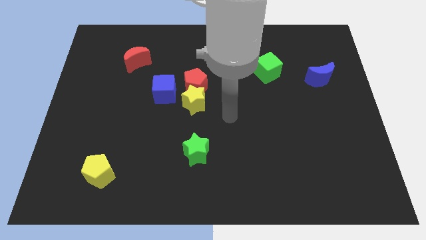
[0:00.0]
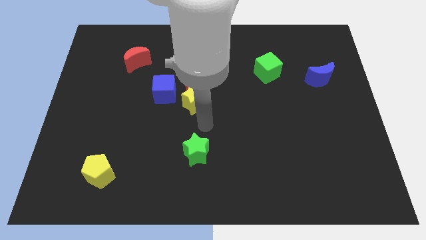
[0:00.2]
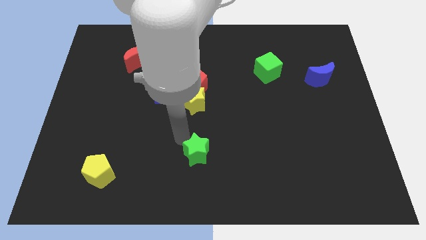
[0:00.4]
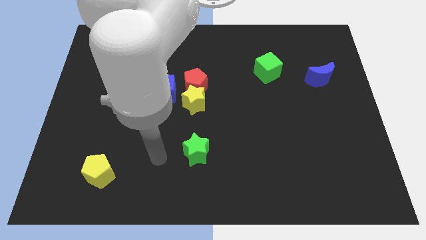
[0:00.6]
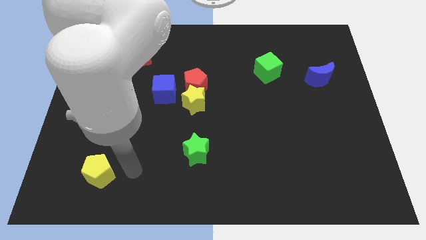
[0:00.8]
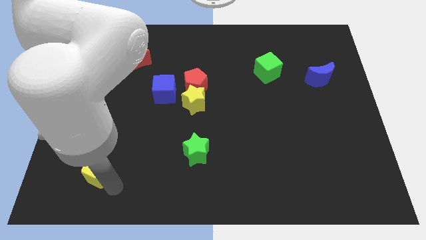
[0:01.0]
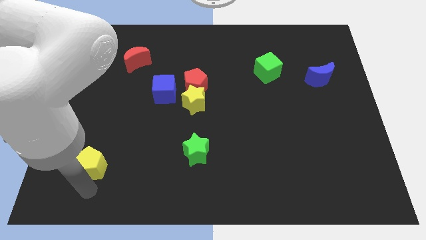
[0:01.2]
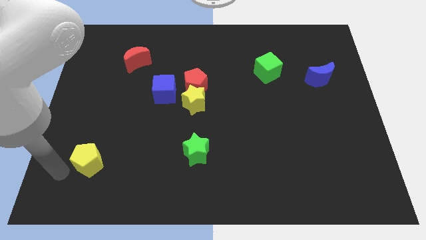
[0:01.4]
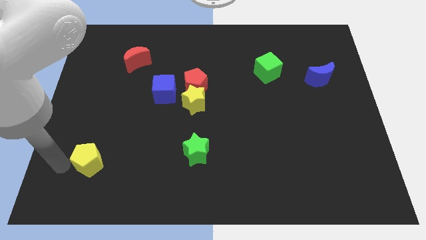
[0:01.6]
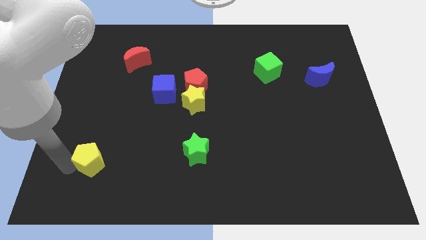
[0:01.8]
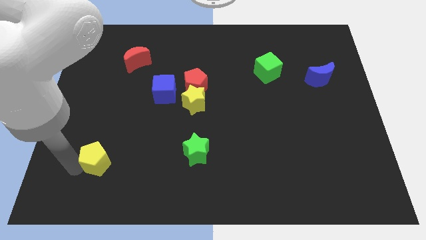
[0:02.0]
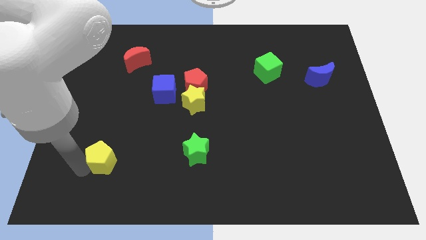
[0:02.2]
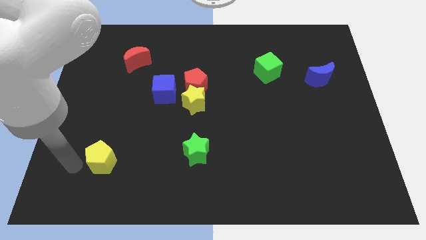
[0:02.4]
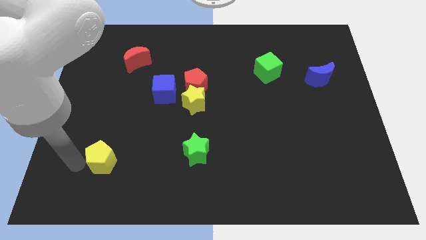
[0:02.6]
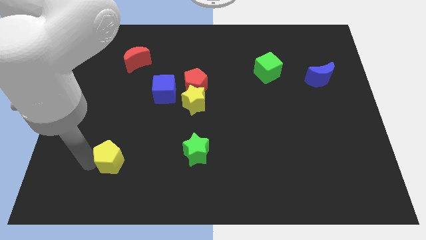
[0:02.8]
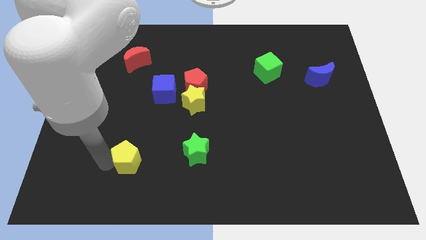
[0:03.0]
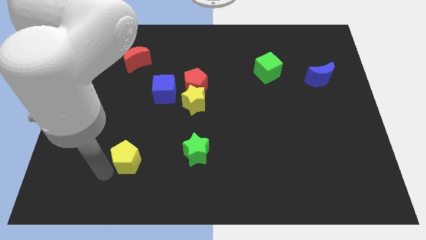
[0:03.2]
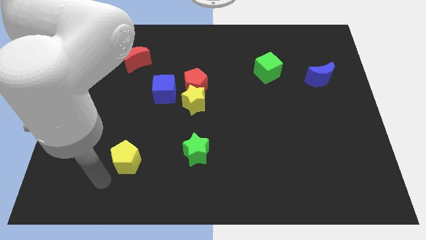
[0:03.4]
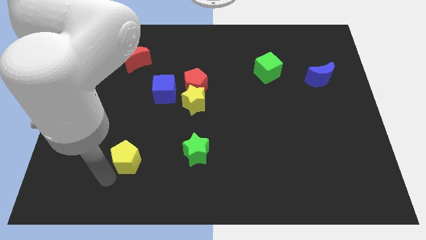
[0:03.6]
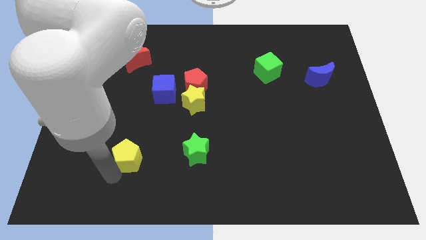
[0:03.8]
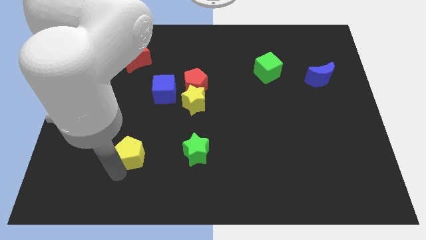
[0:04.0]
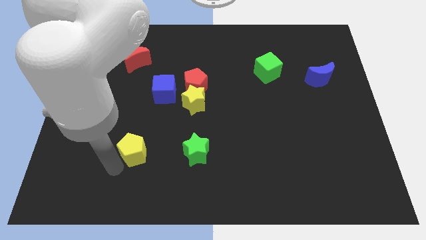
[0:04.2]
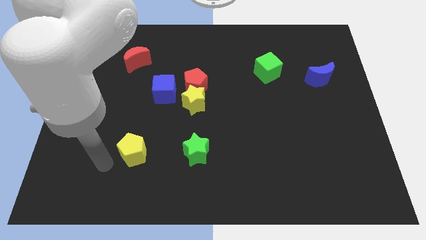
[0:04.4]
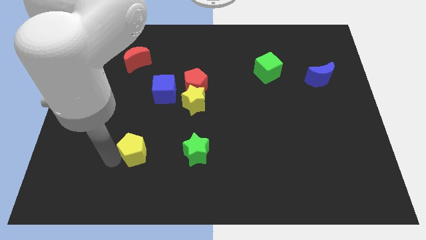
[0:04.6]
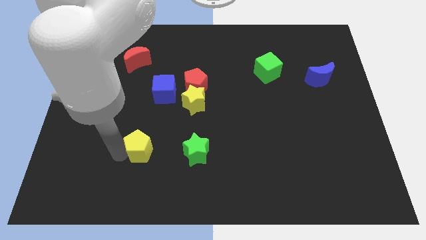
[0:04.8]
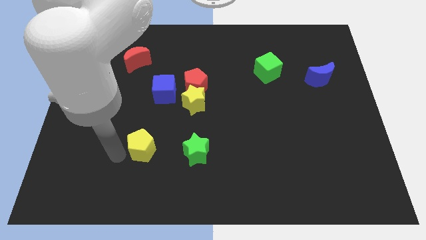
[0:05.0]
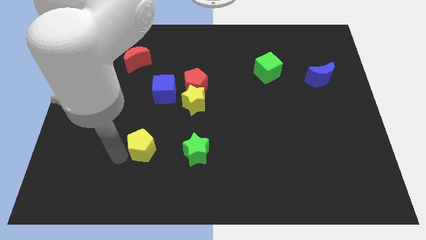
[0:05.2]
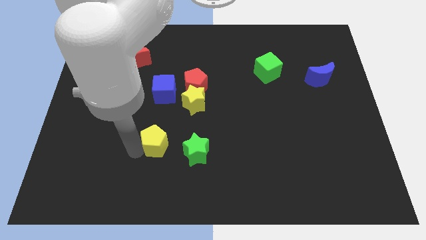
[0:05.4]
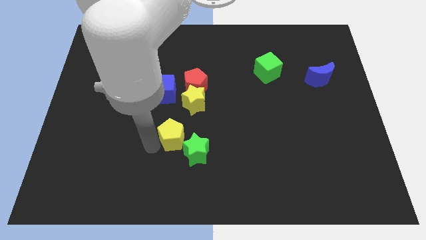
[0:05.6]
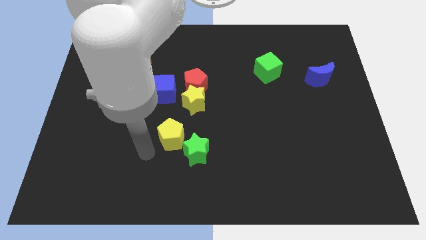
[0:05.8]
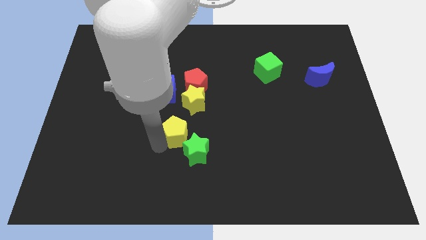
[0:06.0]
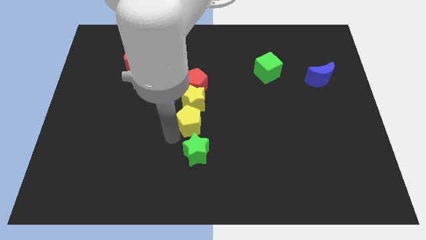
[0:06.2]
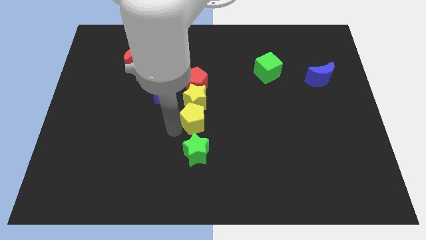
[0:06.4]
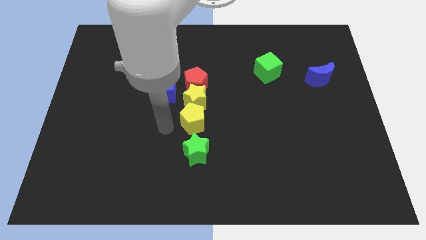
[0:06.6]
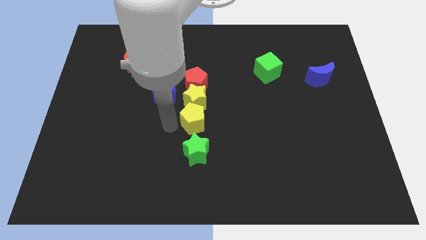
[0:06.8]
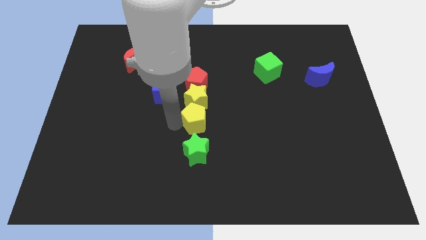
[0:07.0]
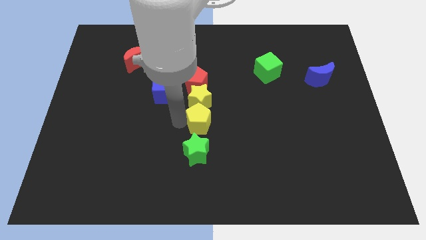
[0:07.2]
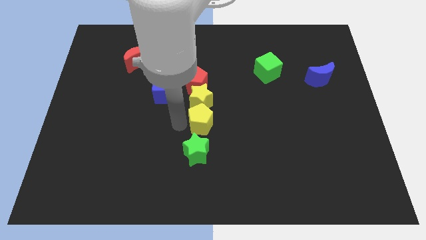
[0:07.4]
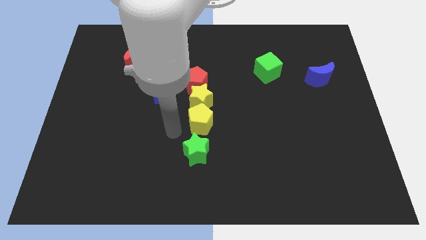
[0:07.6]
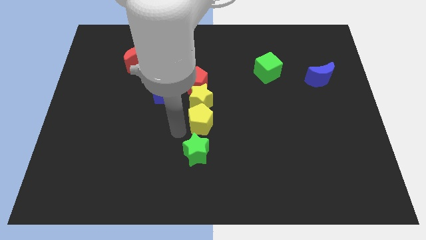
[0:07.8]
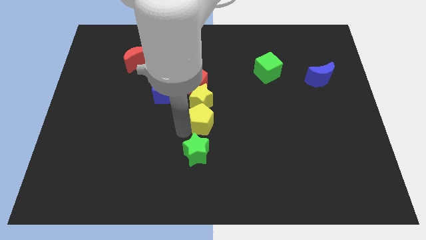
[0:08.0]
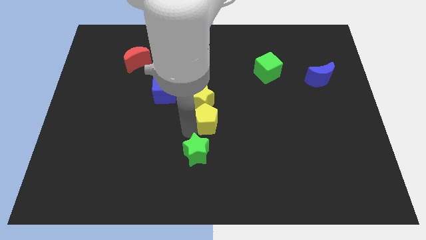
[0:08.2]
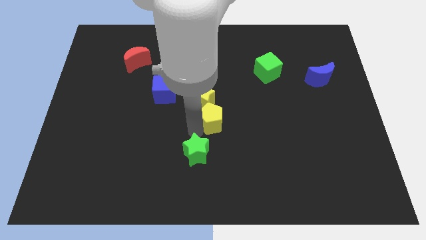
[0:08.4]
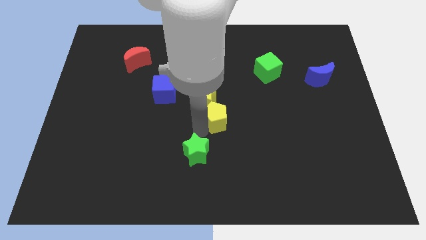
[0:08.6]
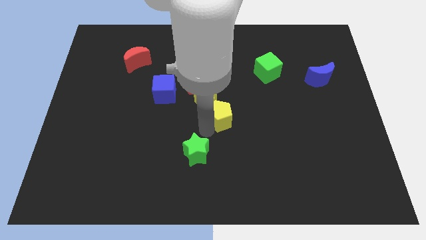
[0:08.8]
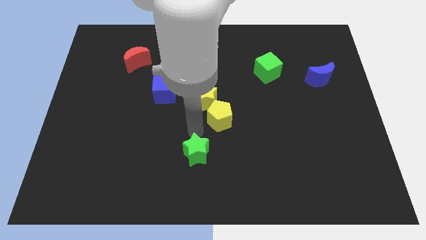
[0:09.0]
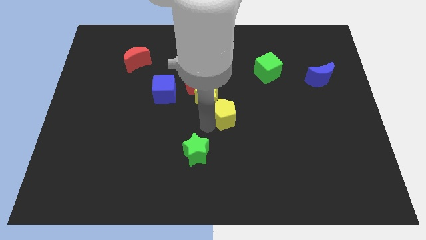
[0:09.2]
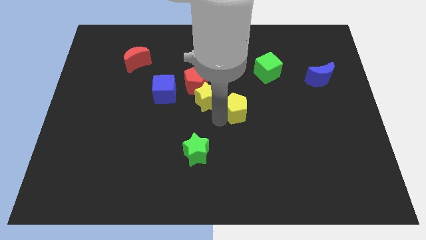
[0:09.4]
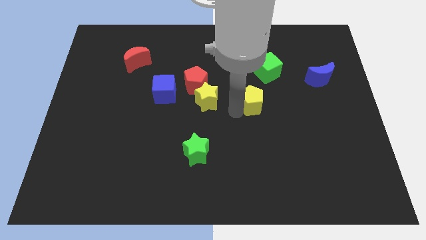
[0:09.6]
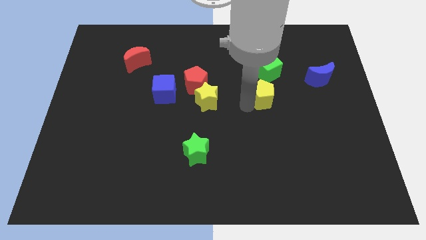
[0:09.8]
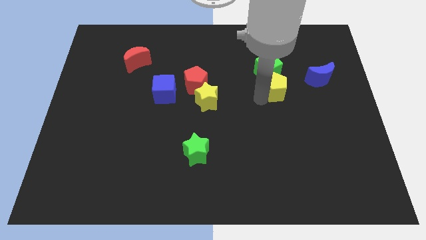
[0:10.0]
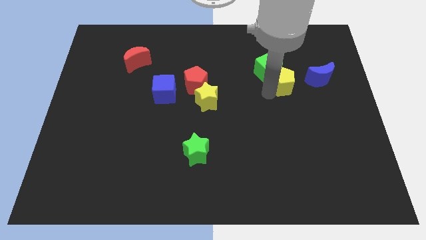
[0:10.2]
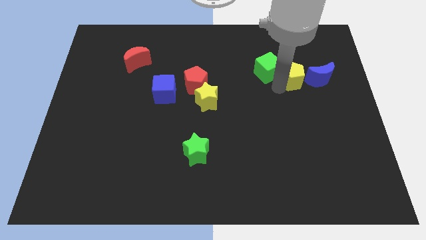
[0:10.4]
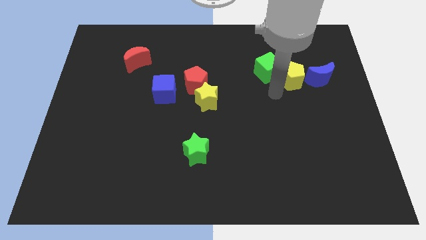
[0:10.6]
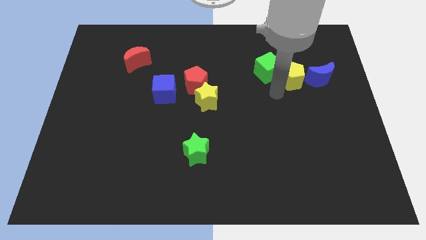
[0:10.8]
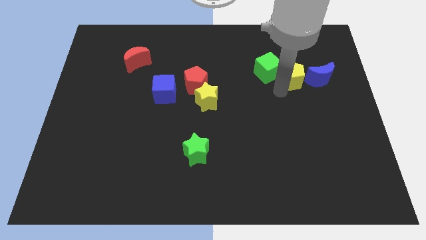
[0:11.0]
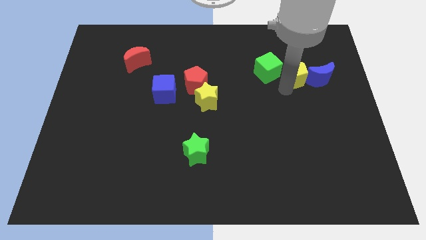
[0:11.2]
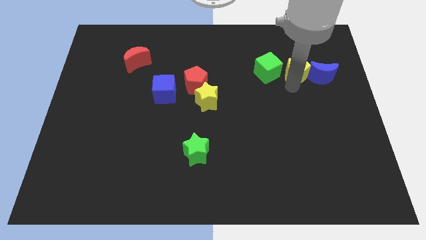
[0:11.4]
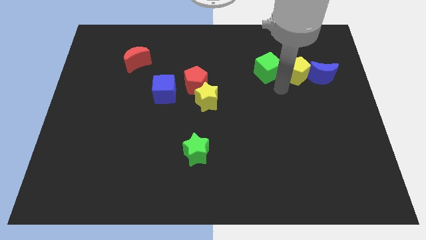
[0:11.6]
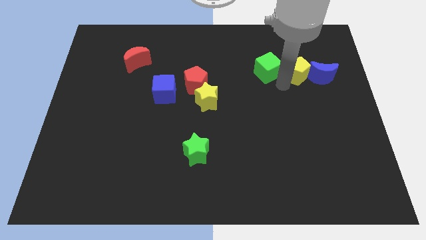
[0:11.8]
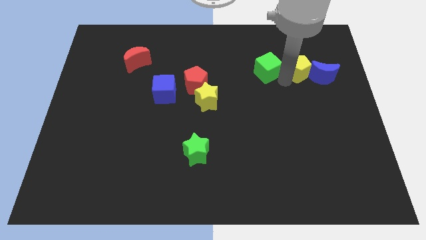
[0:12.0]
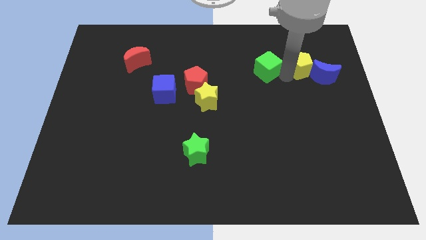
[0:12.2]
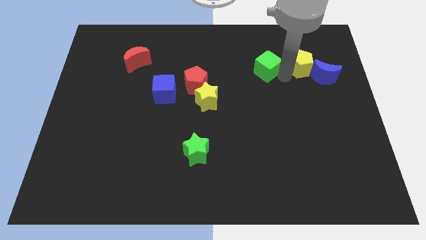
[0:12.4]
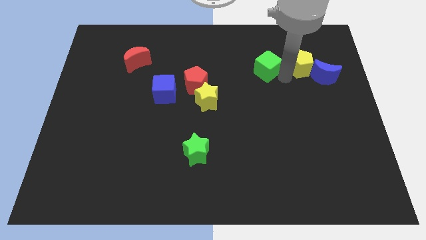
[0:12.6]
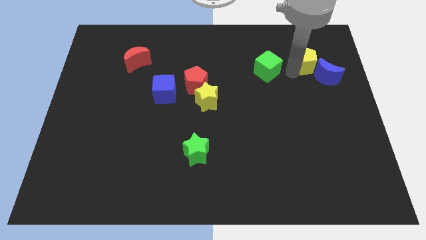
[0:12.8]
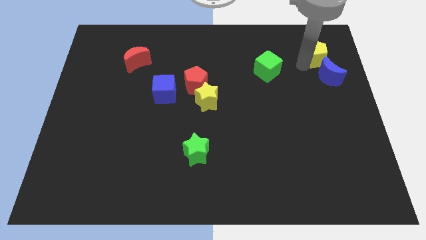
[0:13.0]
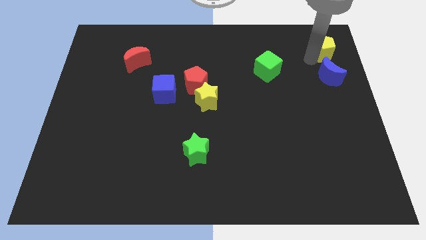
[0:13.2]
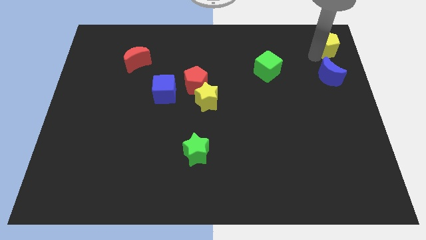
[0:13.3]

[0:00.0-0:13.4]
put the yellow pentagon to the top right corner
